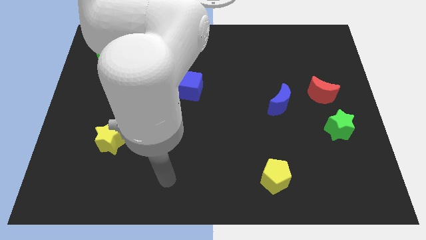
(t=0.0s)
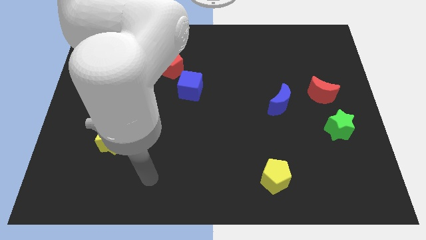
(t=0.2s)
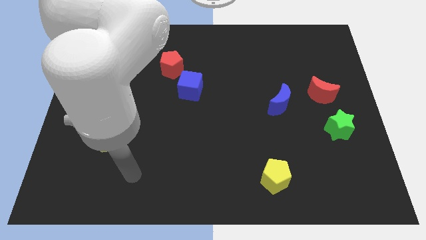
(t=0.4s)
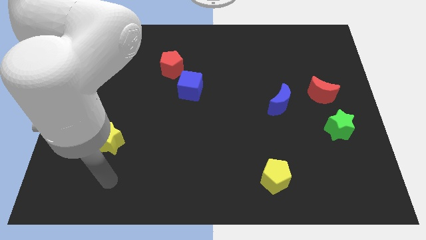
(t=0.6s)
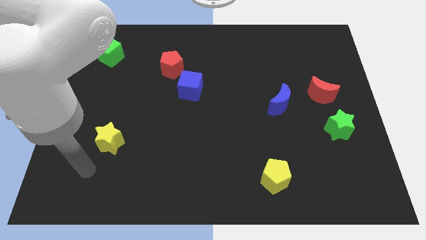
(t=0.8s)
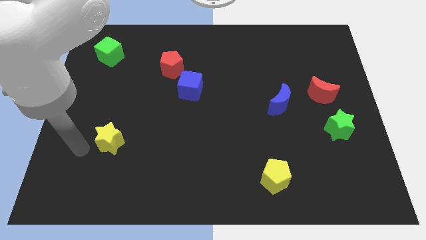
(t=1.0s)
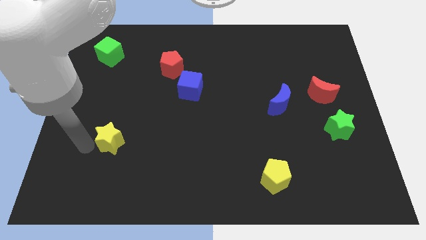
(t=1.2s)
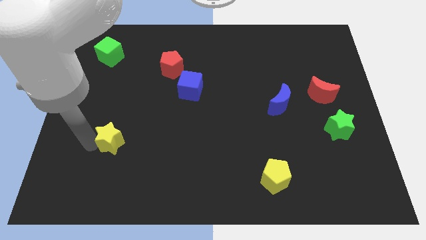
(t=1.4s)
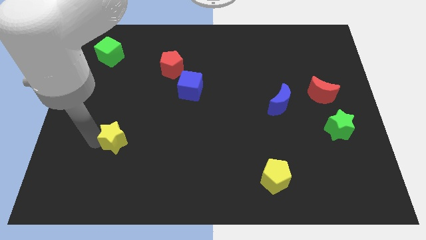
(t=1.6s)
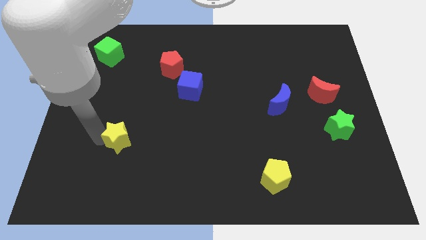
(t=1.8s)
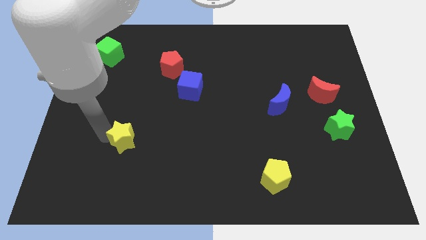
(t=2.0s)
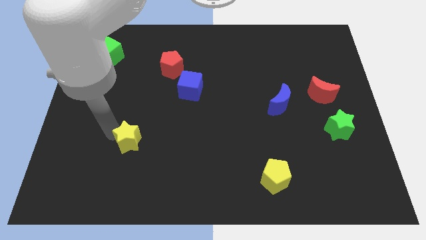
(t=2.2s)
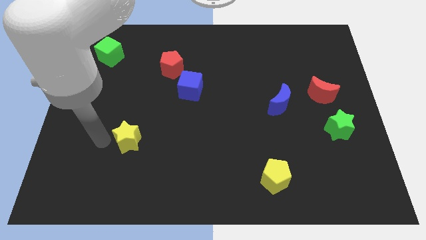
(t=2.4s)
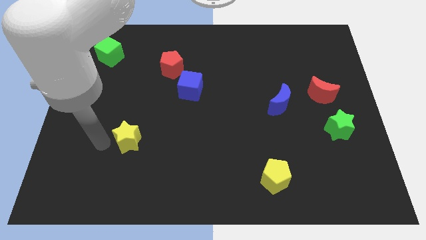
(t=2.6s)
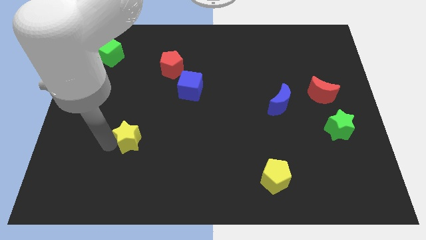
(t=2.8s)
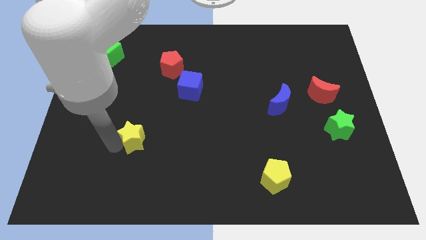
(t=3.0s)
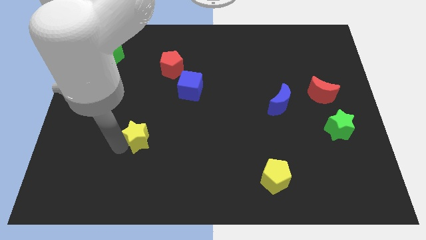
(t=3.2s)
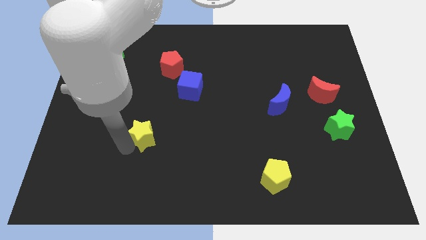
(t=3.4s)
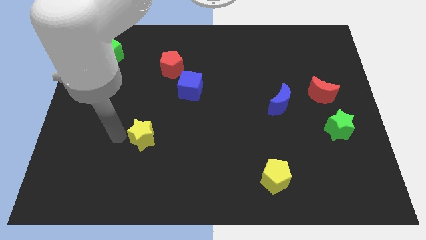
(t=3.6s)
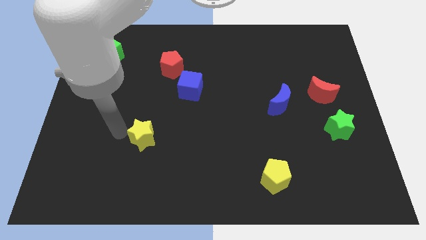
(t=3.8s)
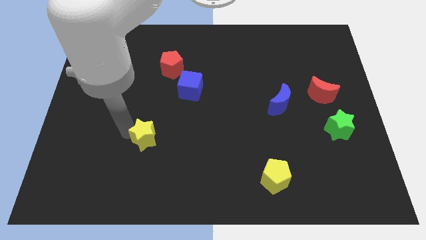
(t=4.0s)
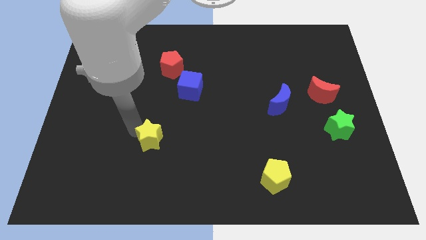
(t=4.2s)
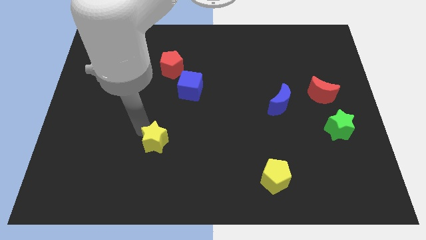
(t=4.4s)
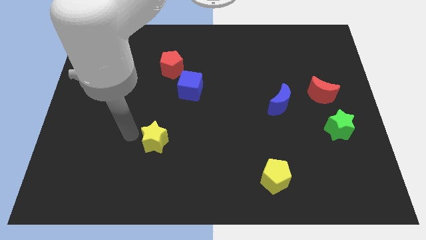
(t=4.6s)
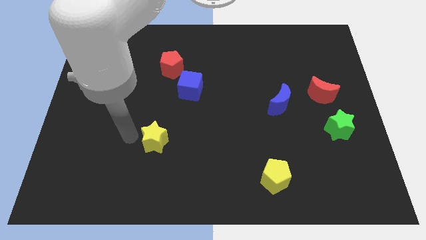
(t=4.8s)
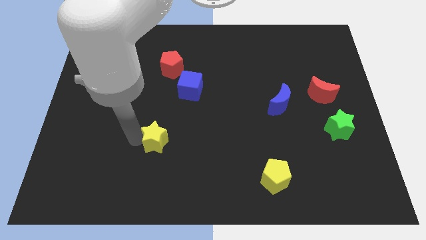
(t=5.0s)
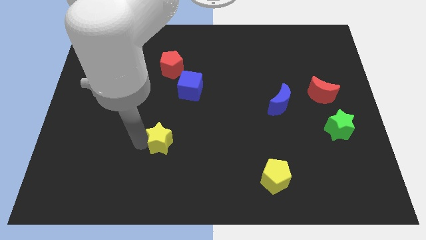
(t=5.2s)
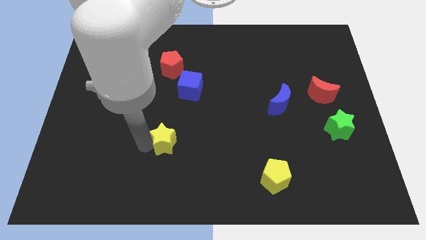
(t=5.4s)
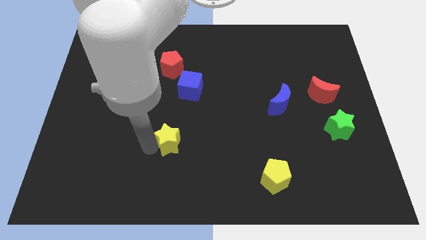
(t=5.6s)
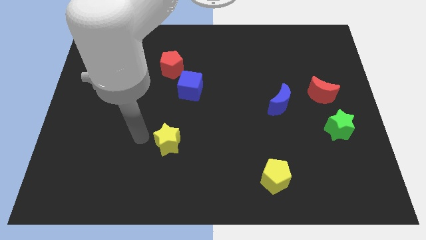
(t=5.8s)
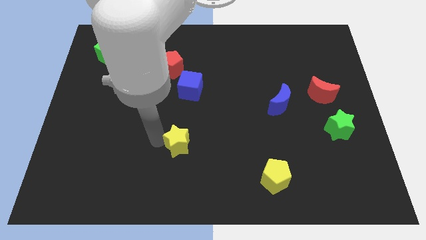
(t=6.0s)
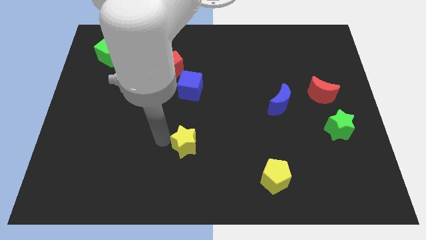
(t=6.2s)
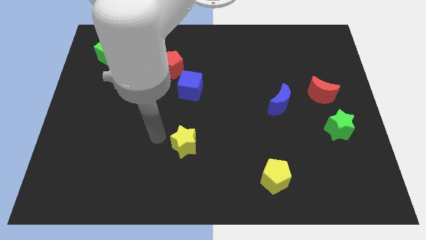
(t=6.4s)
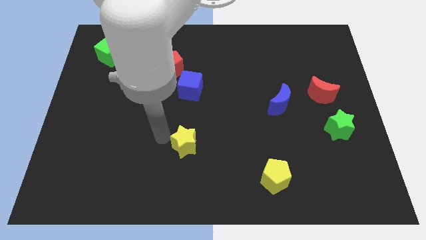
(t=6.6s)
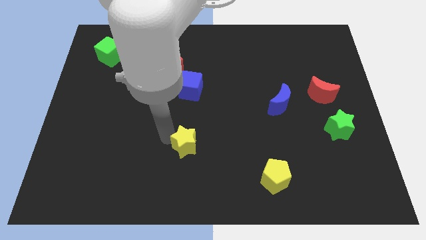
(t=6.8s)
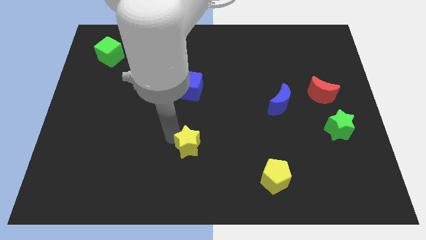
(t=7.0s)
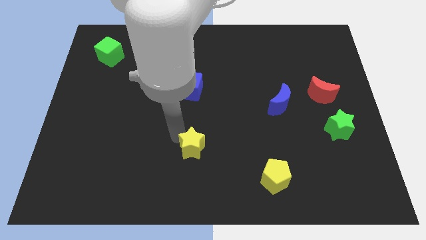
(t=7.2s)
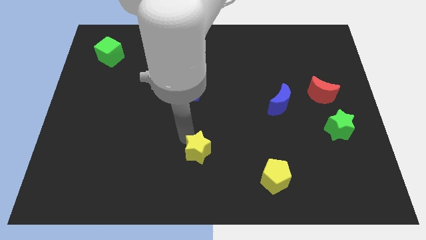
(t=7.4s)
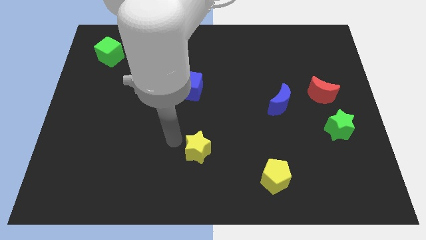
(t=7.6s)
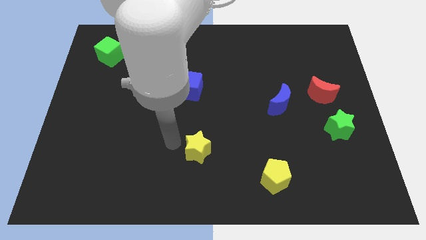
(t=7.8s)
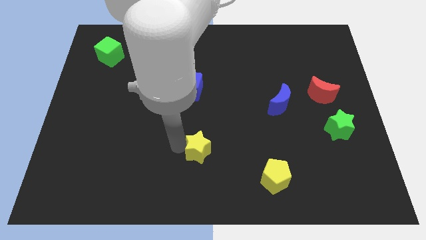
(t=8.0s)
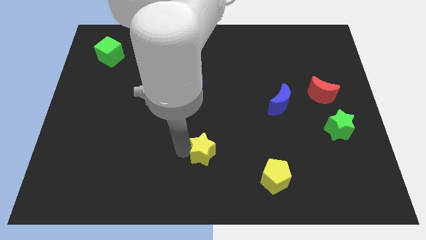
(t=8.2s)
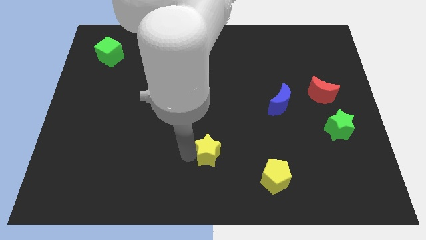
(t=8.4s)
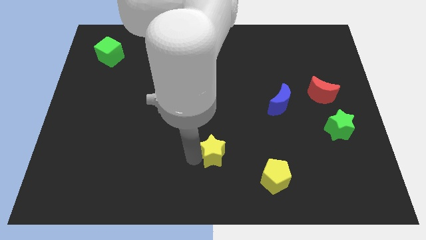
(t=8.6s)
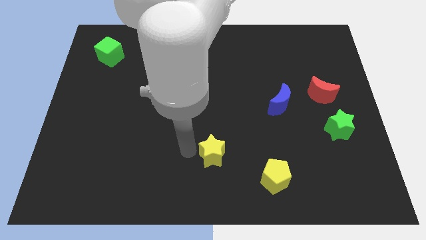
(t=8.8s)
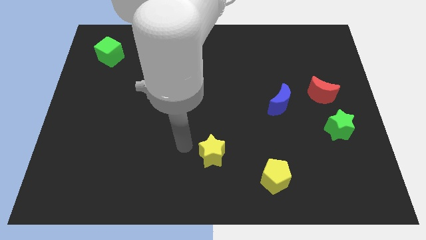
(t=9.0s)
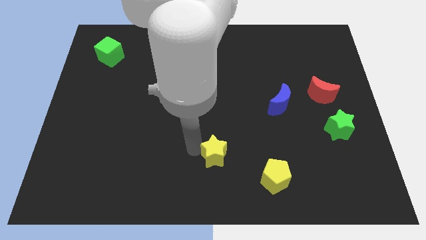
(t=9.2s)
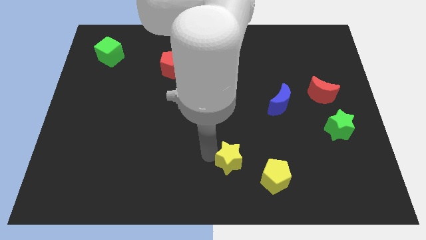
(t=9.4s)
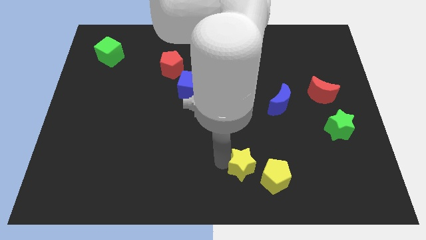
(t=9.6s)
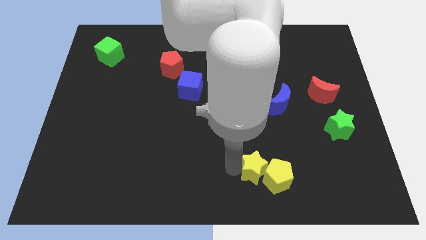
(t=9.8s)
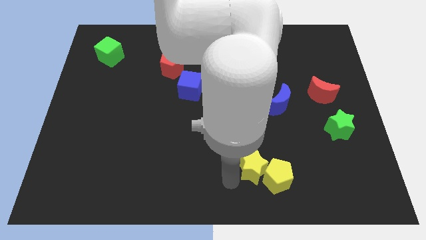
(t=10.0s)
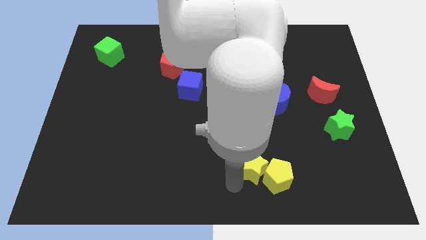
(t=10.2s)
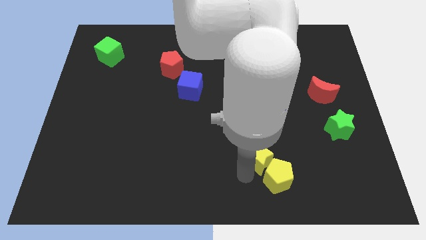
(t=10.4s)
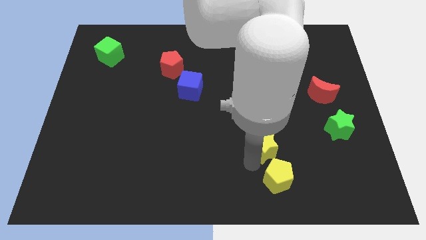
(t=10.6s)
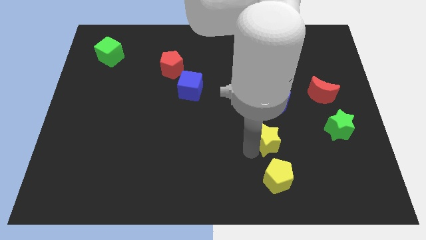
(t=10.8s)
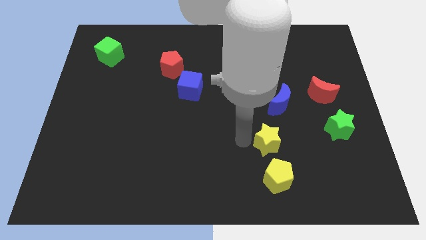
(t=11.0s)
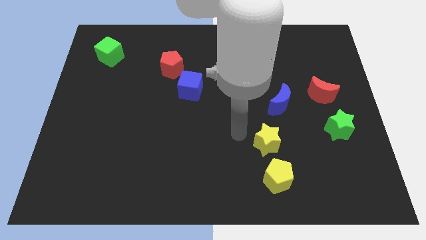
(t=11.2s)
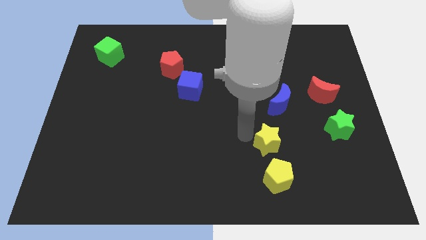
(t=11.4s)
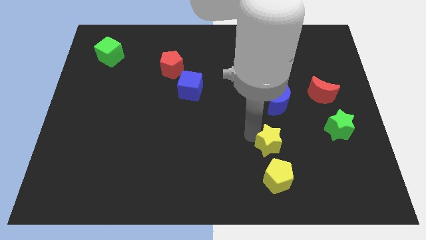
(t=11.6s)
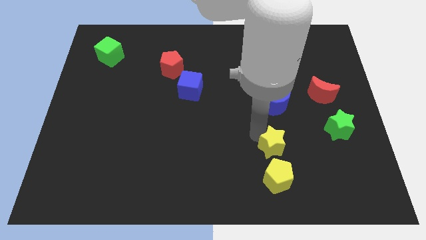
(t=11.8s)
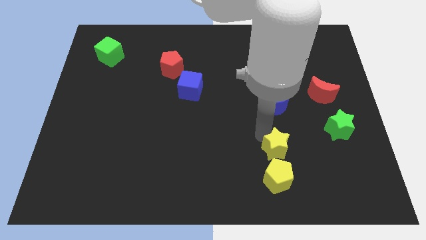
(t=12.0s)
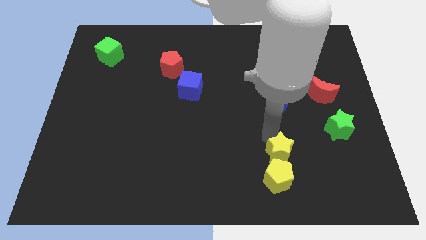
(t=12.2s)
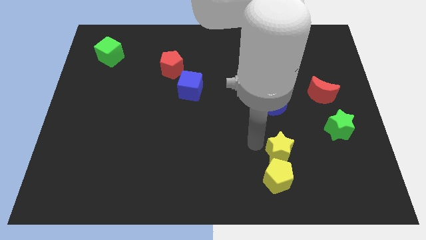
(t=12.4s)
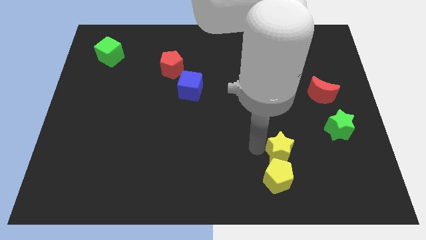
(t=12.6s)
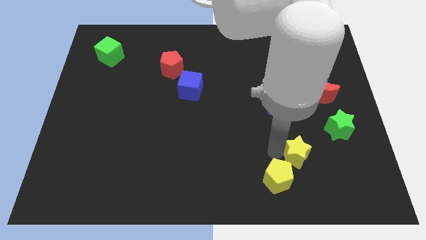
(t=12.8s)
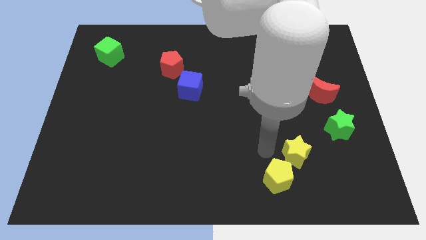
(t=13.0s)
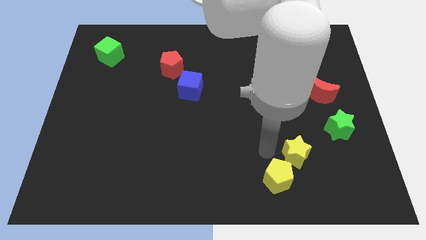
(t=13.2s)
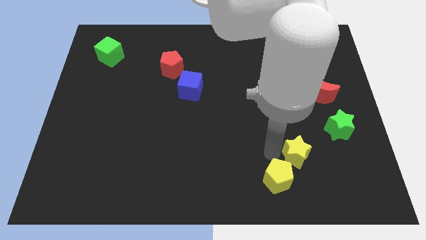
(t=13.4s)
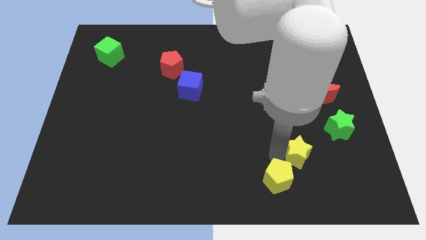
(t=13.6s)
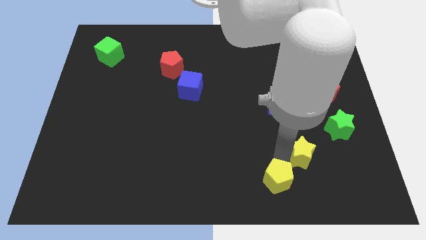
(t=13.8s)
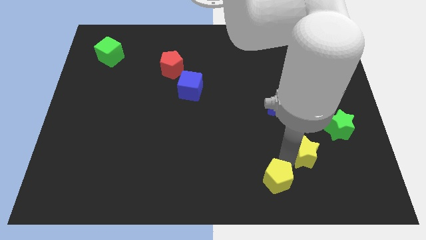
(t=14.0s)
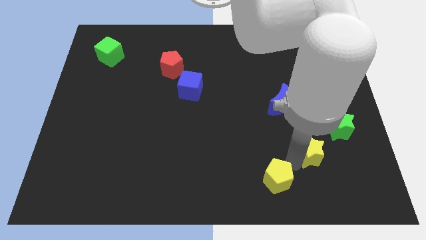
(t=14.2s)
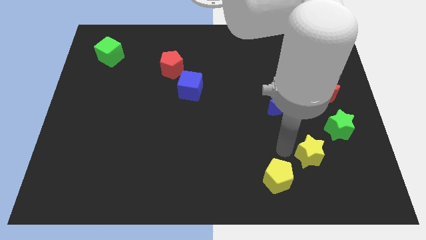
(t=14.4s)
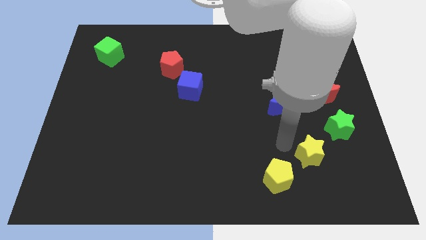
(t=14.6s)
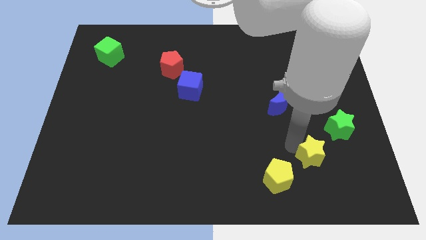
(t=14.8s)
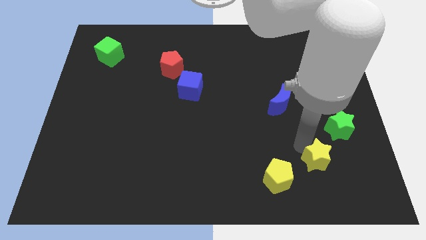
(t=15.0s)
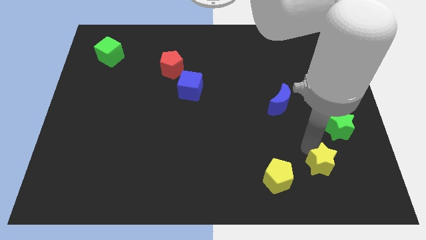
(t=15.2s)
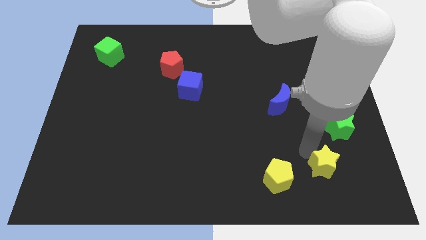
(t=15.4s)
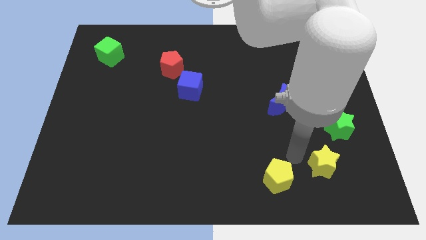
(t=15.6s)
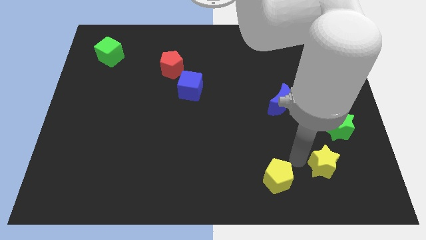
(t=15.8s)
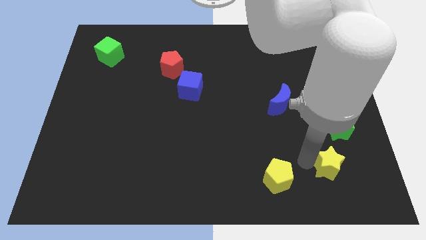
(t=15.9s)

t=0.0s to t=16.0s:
move the yellow star to the bottom of the green star

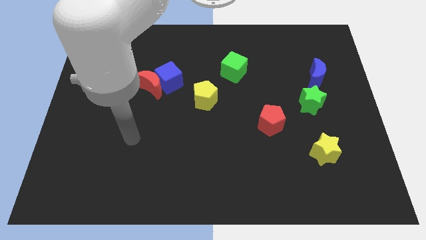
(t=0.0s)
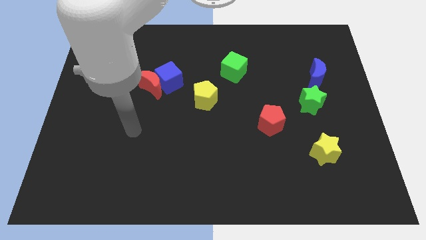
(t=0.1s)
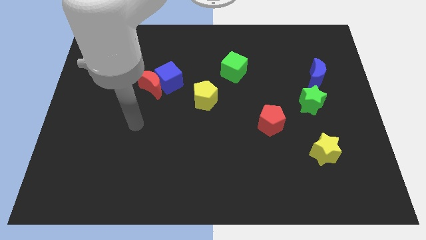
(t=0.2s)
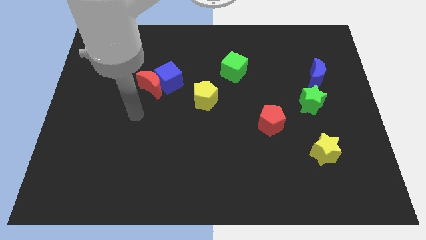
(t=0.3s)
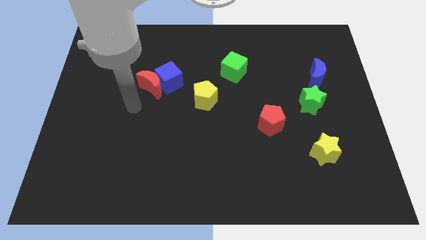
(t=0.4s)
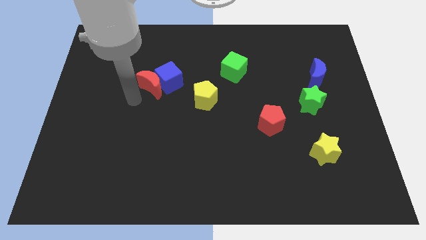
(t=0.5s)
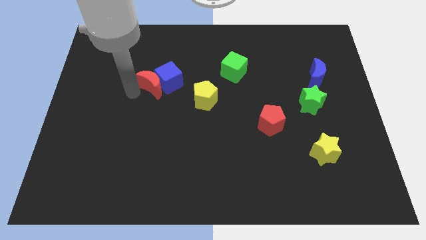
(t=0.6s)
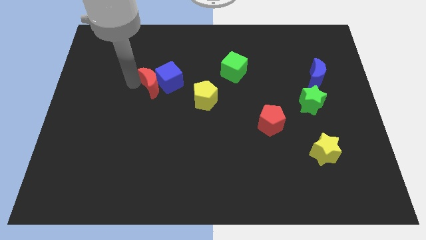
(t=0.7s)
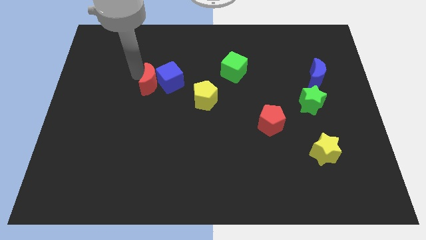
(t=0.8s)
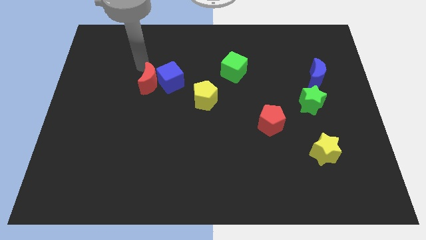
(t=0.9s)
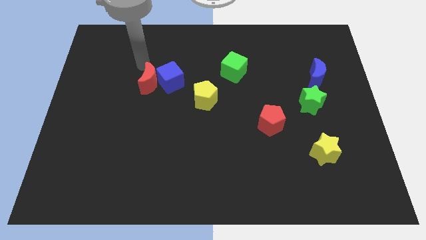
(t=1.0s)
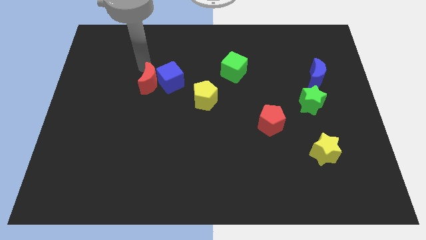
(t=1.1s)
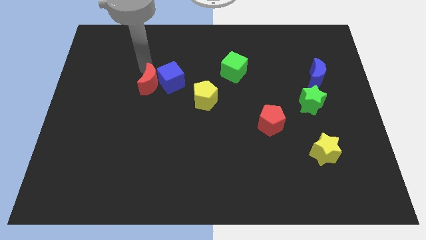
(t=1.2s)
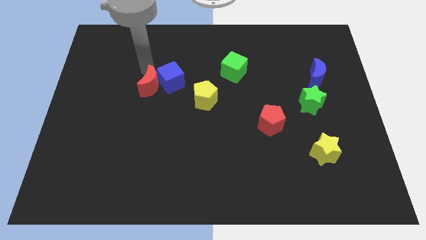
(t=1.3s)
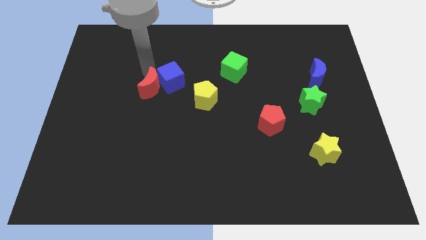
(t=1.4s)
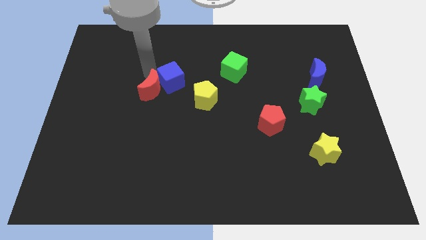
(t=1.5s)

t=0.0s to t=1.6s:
put the red moon to the bottom side of the blue cube
